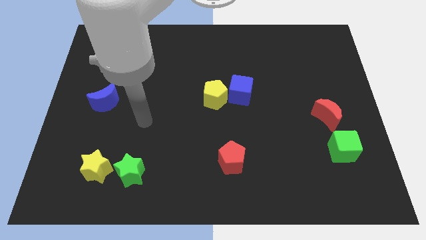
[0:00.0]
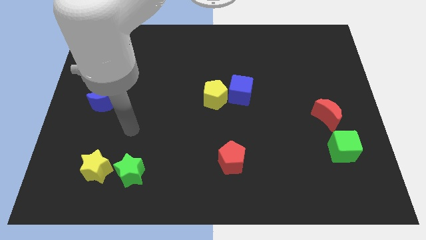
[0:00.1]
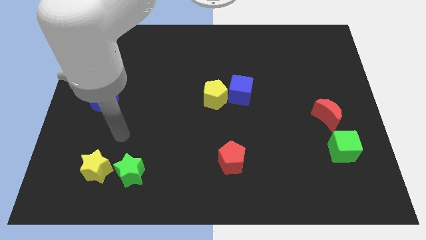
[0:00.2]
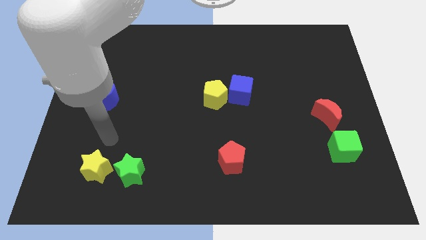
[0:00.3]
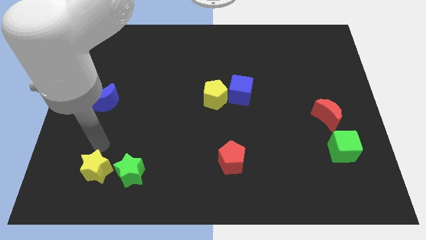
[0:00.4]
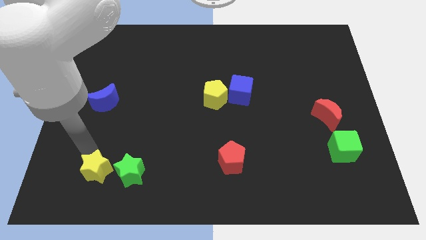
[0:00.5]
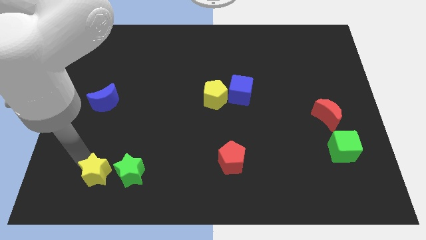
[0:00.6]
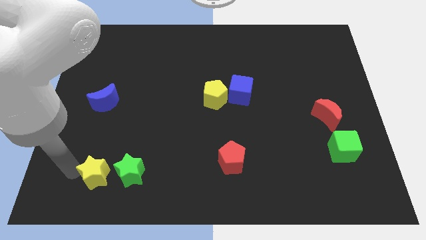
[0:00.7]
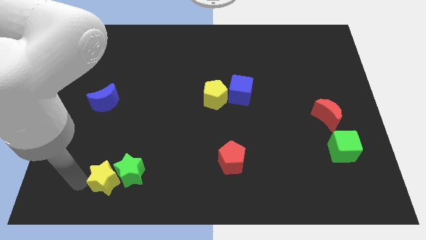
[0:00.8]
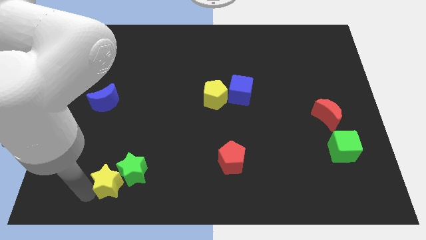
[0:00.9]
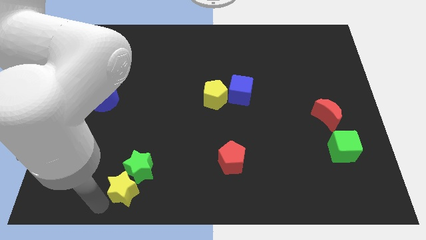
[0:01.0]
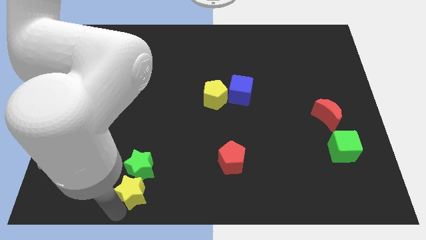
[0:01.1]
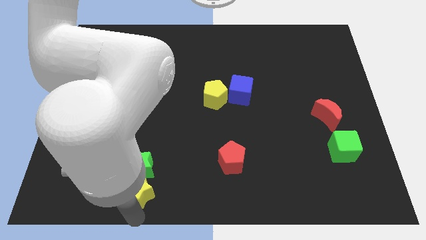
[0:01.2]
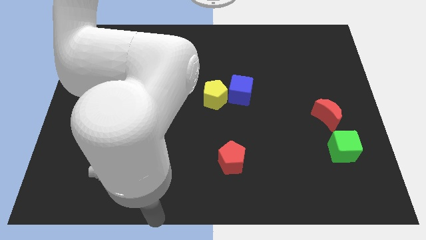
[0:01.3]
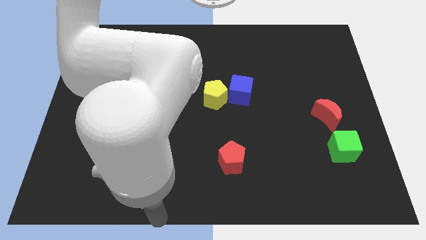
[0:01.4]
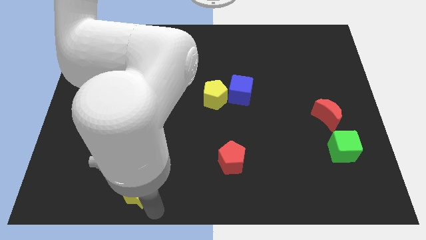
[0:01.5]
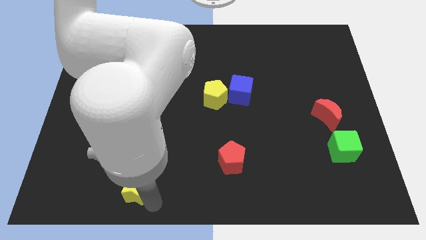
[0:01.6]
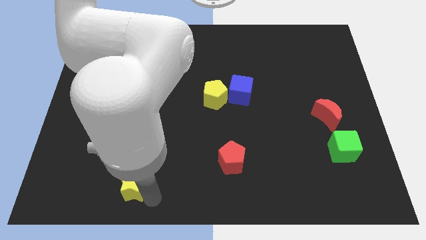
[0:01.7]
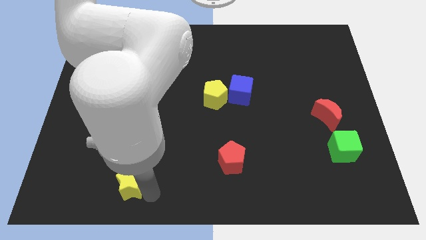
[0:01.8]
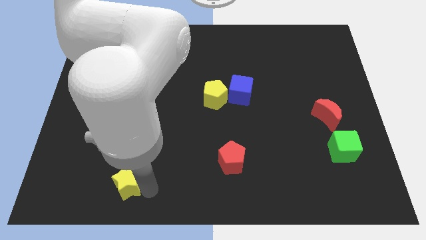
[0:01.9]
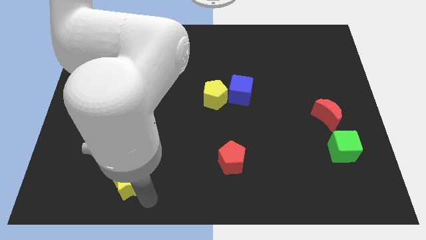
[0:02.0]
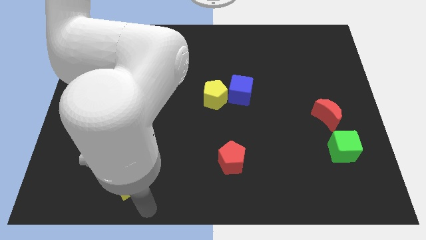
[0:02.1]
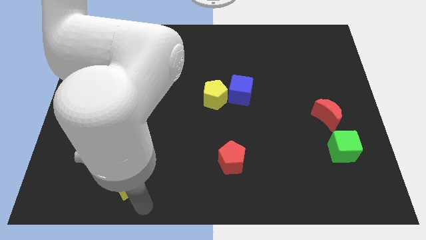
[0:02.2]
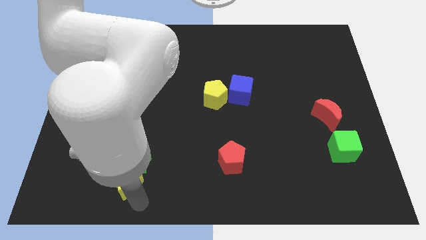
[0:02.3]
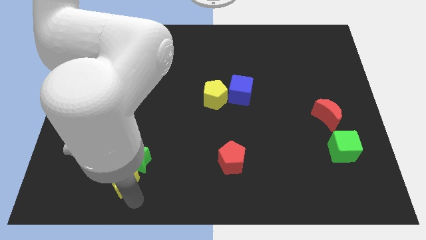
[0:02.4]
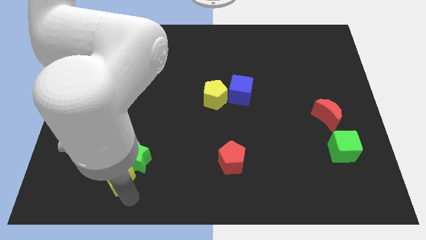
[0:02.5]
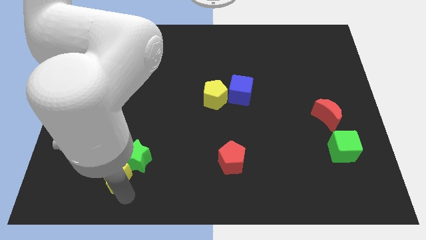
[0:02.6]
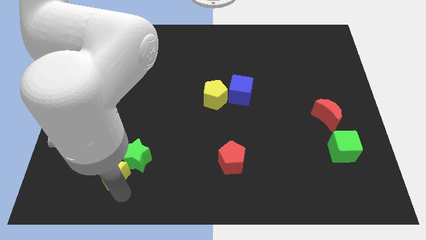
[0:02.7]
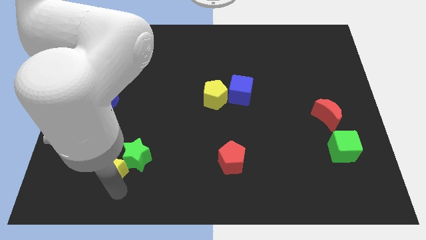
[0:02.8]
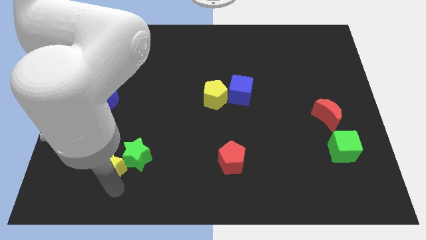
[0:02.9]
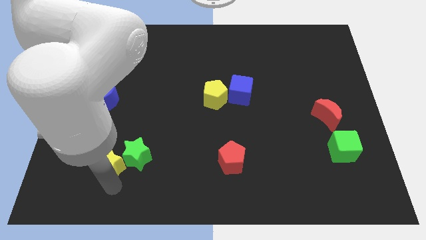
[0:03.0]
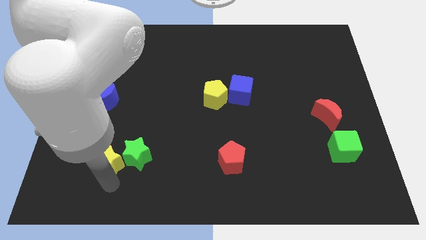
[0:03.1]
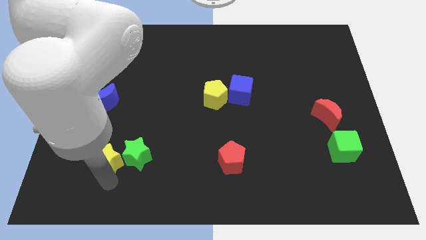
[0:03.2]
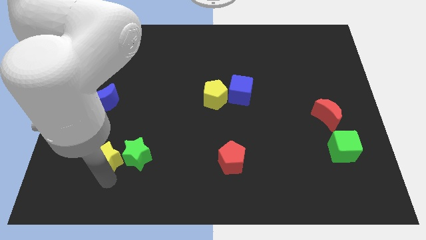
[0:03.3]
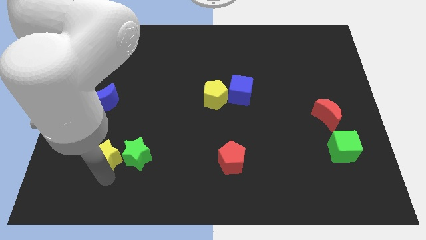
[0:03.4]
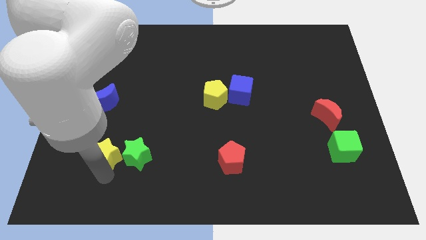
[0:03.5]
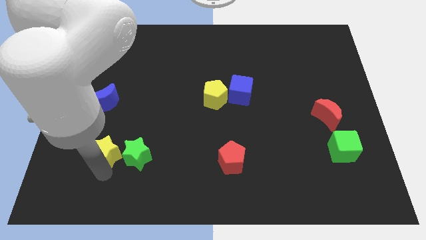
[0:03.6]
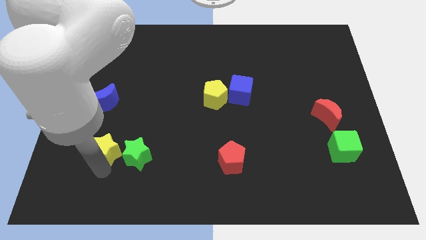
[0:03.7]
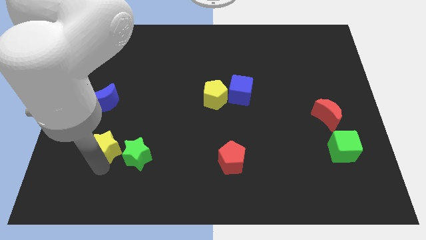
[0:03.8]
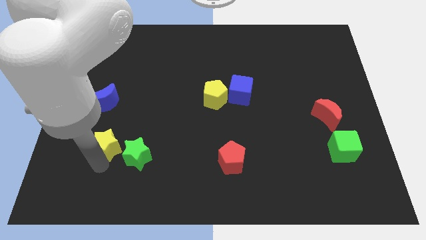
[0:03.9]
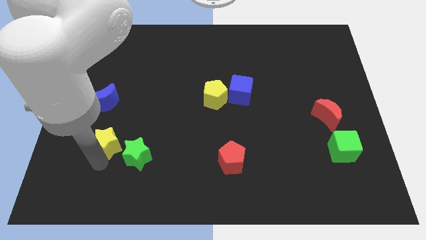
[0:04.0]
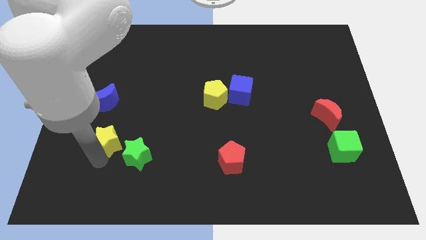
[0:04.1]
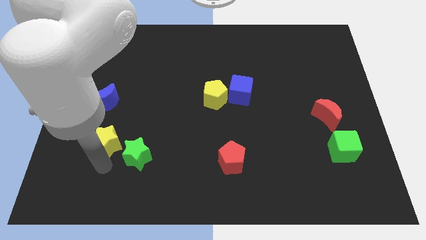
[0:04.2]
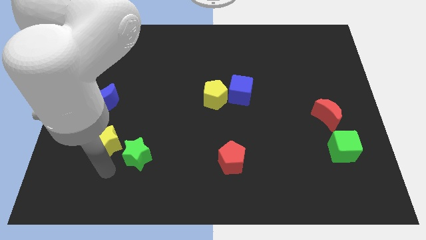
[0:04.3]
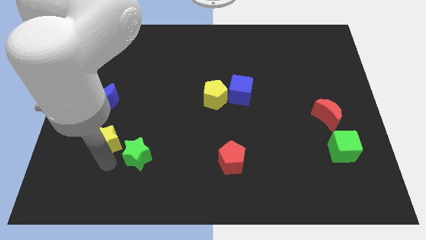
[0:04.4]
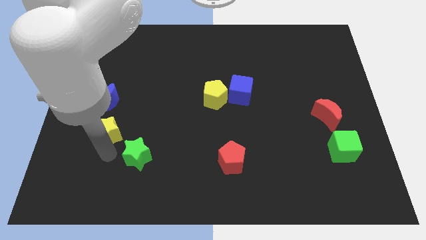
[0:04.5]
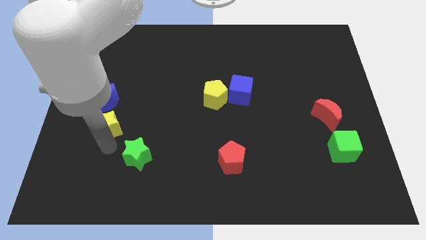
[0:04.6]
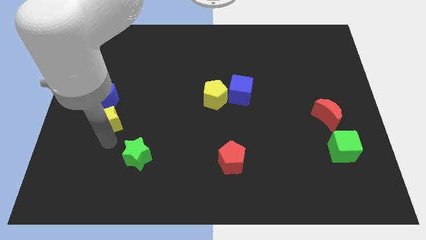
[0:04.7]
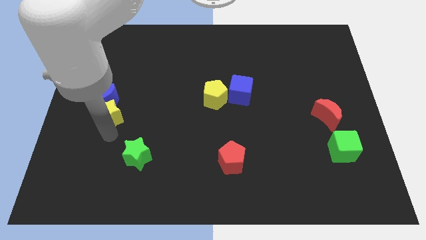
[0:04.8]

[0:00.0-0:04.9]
slide the yellow star to the blue moon

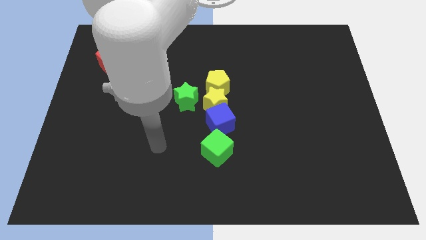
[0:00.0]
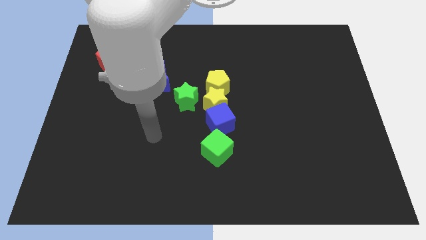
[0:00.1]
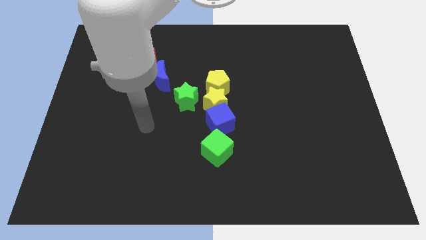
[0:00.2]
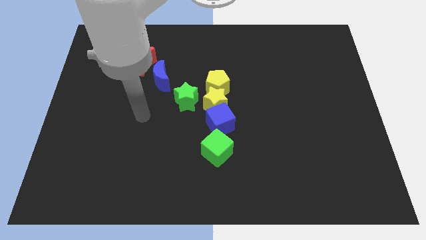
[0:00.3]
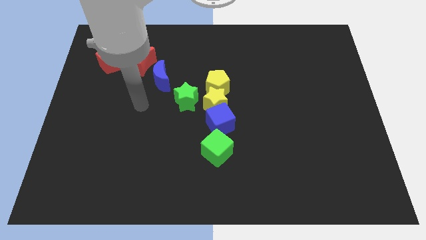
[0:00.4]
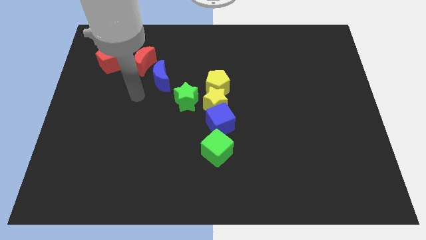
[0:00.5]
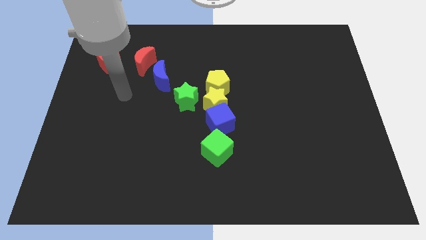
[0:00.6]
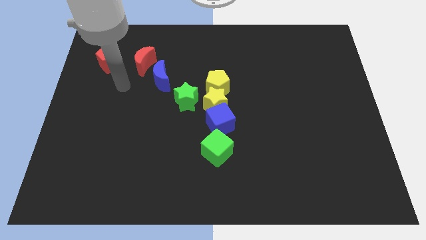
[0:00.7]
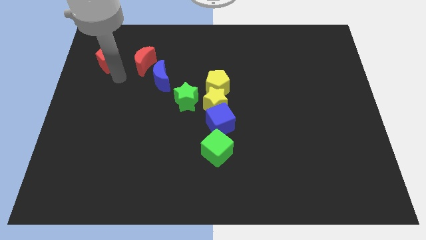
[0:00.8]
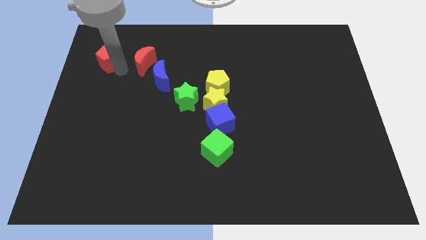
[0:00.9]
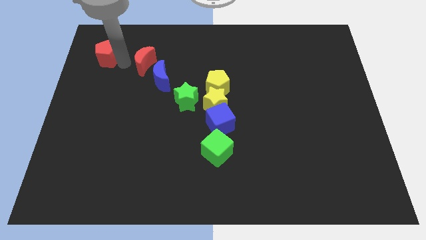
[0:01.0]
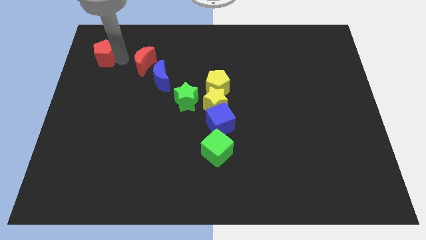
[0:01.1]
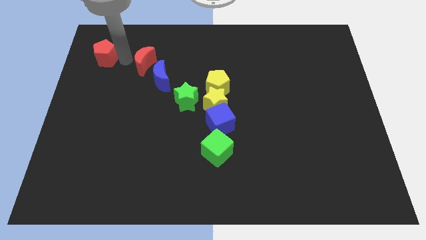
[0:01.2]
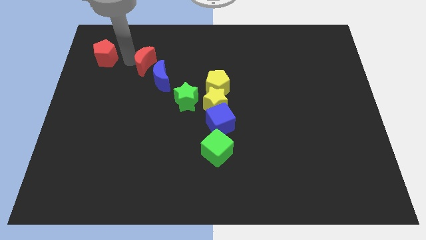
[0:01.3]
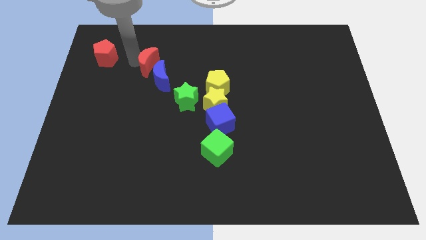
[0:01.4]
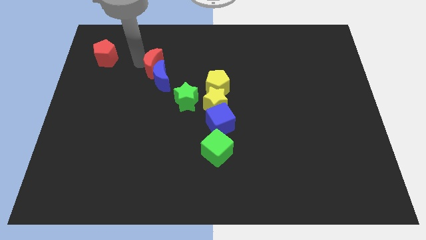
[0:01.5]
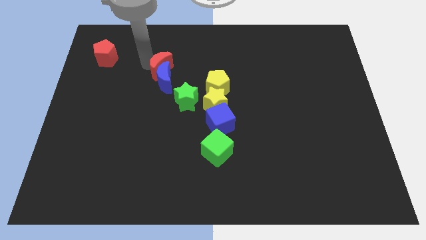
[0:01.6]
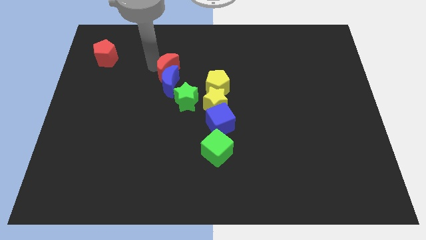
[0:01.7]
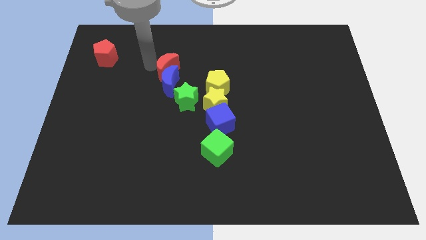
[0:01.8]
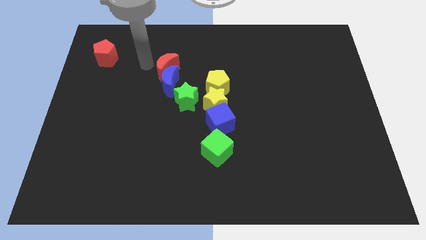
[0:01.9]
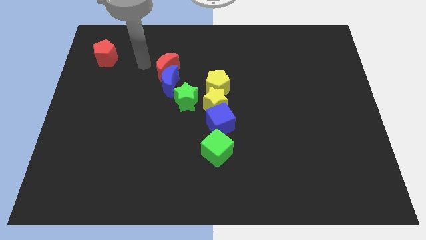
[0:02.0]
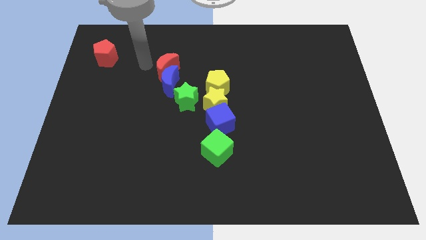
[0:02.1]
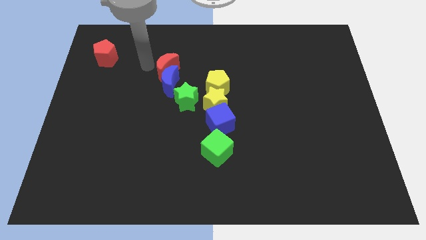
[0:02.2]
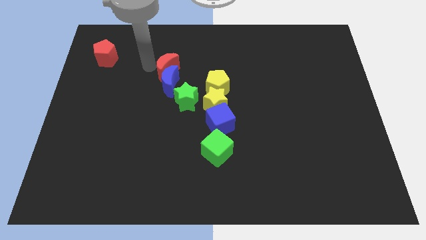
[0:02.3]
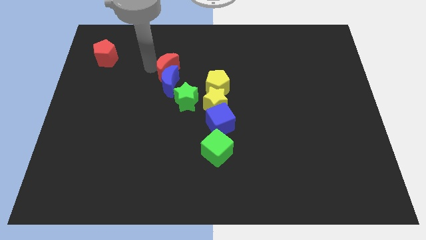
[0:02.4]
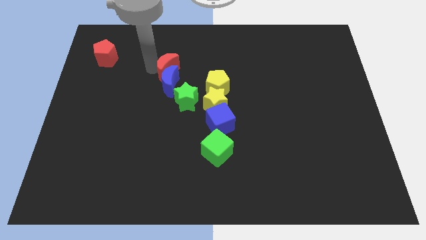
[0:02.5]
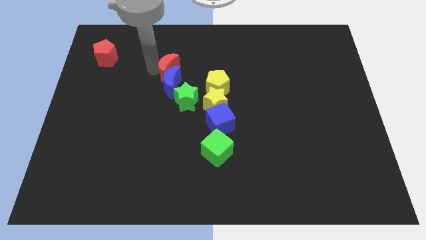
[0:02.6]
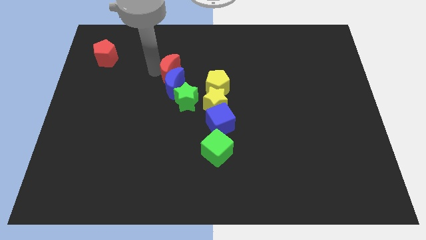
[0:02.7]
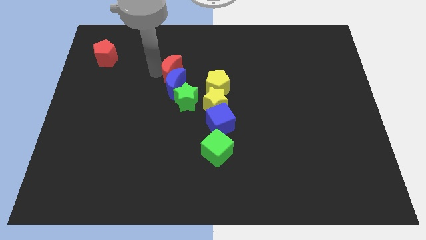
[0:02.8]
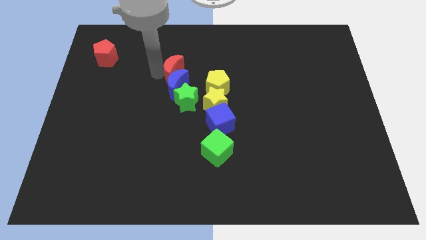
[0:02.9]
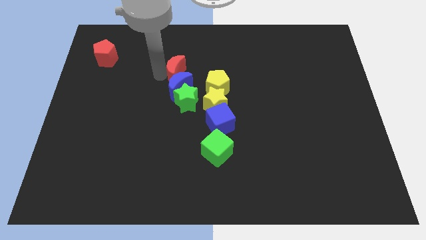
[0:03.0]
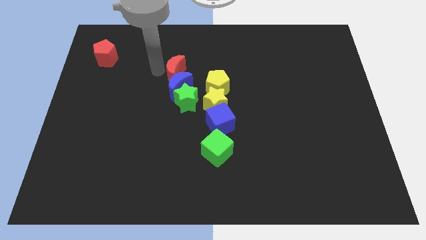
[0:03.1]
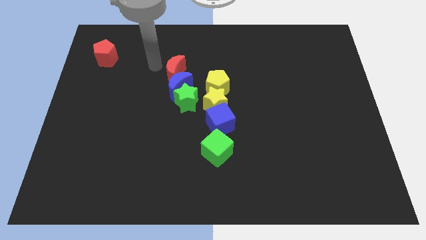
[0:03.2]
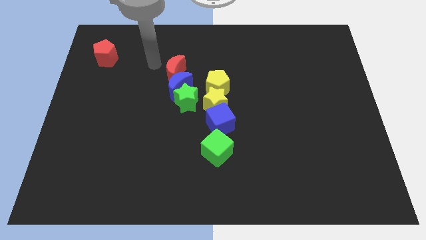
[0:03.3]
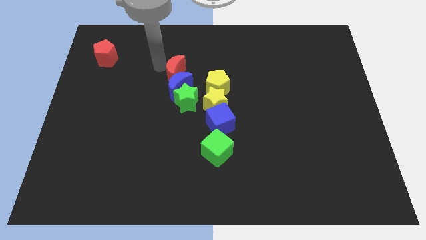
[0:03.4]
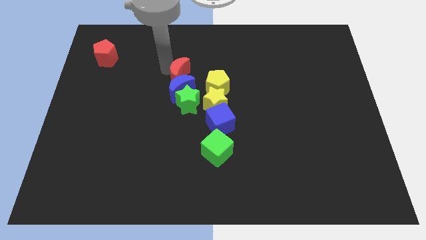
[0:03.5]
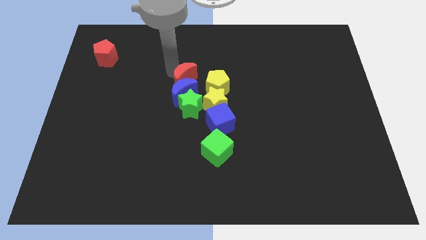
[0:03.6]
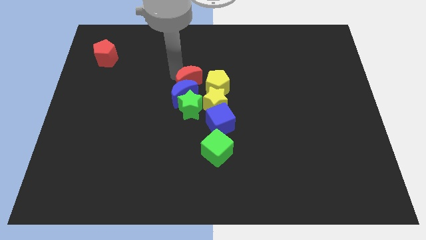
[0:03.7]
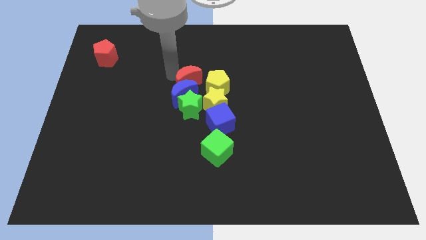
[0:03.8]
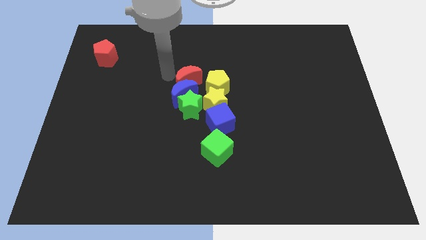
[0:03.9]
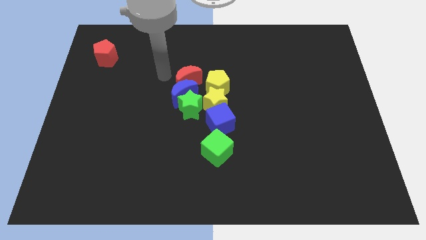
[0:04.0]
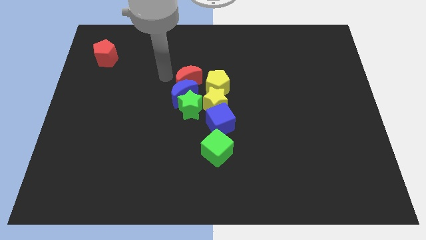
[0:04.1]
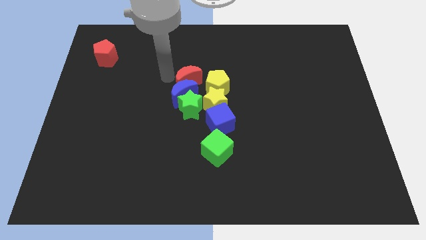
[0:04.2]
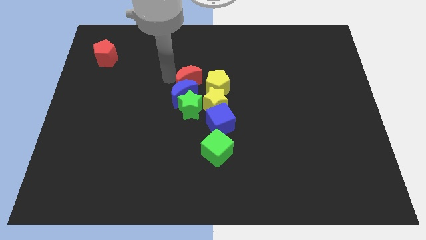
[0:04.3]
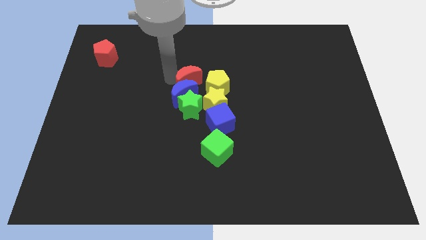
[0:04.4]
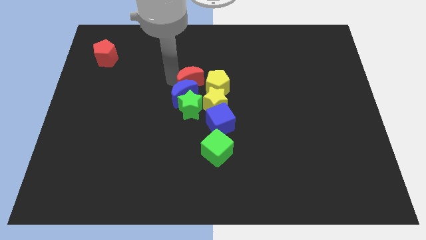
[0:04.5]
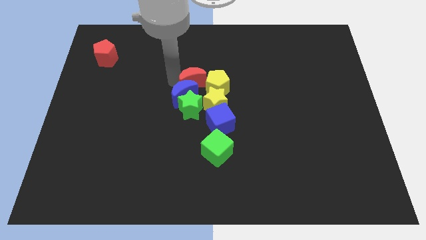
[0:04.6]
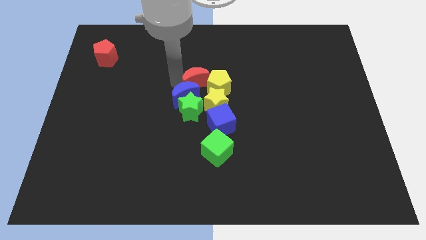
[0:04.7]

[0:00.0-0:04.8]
push the red moon next to the yellow pentagon
